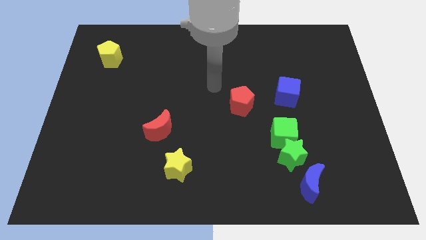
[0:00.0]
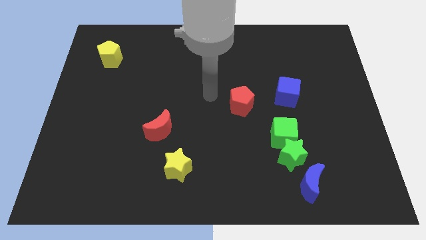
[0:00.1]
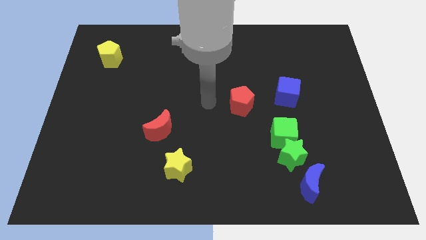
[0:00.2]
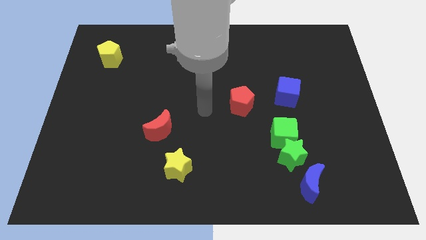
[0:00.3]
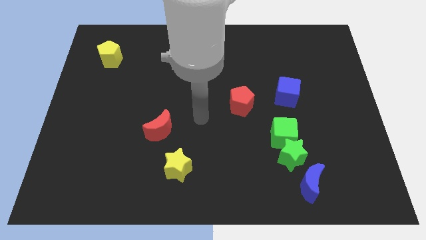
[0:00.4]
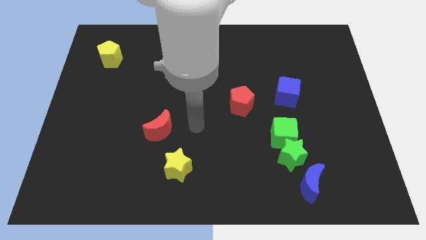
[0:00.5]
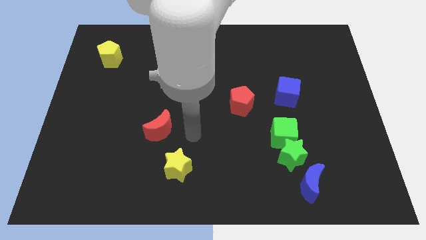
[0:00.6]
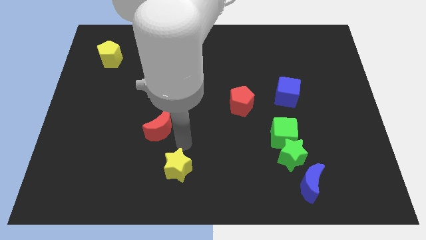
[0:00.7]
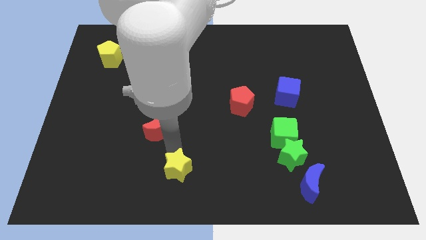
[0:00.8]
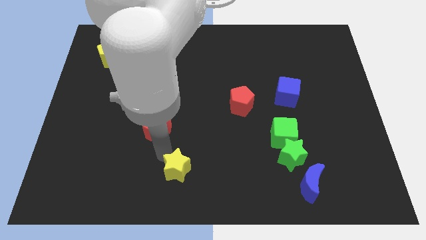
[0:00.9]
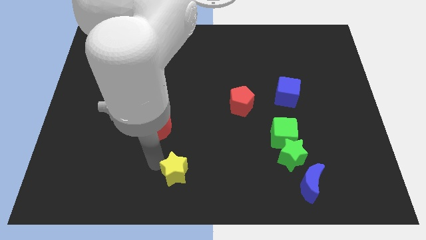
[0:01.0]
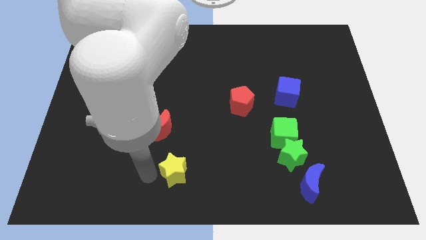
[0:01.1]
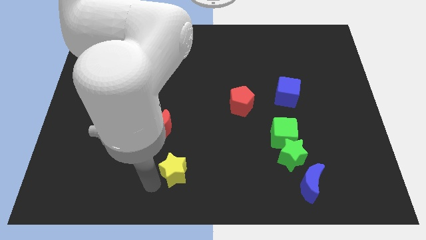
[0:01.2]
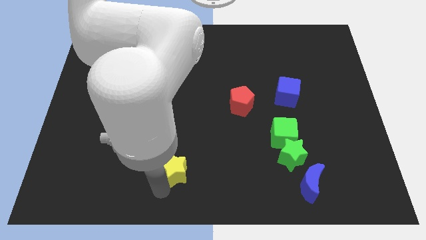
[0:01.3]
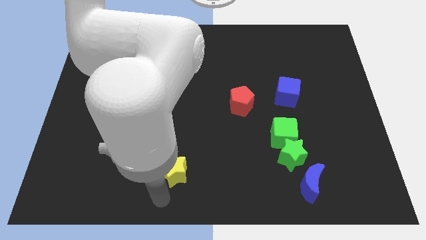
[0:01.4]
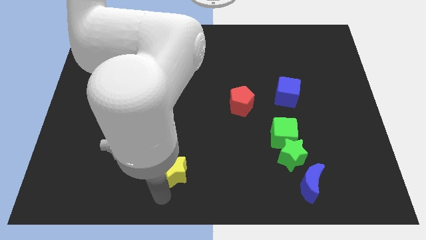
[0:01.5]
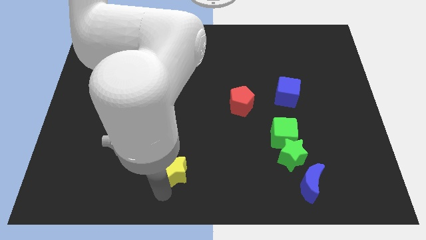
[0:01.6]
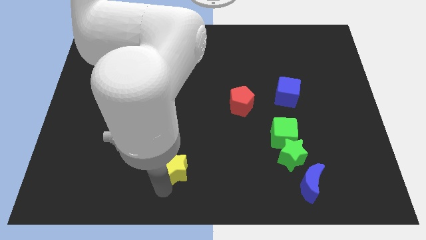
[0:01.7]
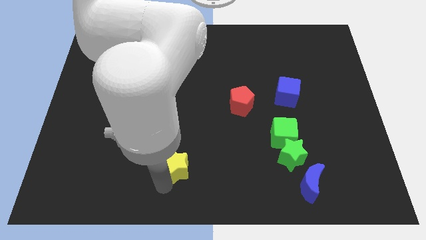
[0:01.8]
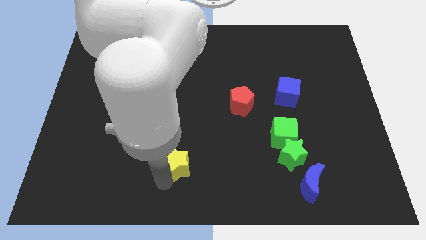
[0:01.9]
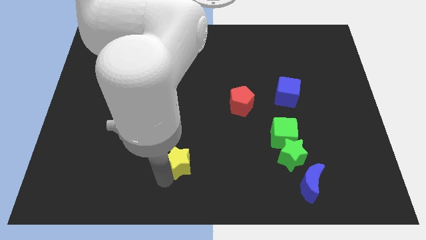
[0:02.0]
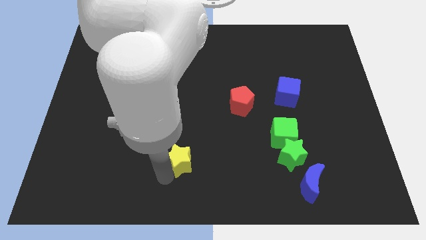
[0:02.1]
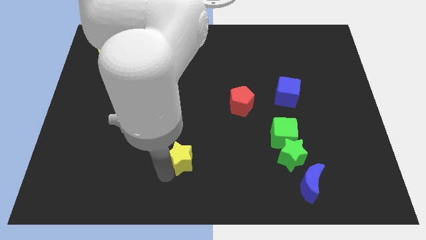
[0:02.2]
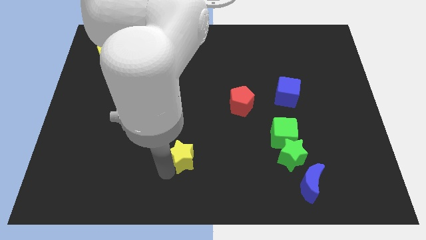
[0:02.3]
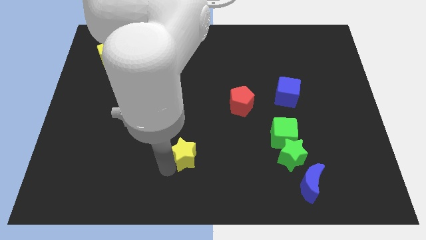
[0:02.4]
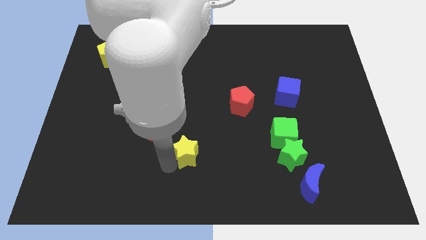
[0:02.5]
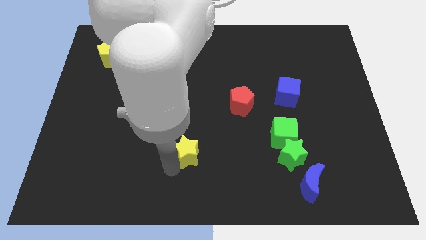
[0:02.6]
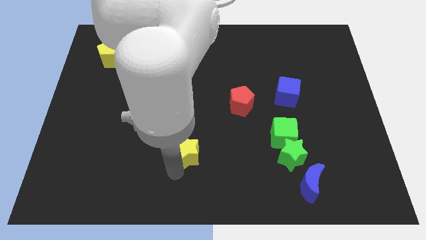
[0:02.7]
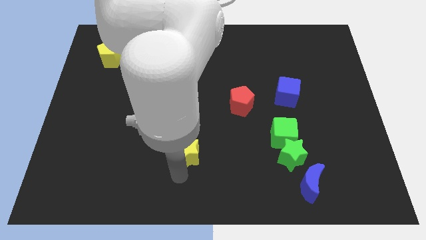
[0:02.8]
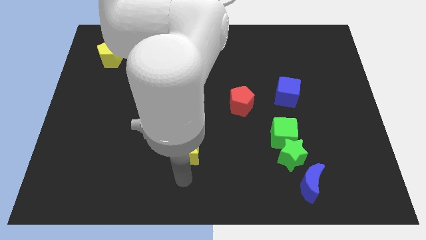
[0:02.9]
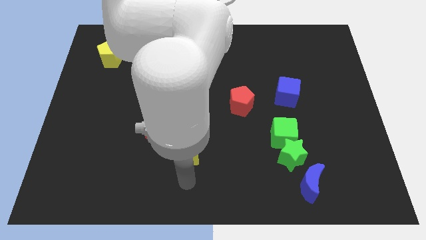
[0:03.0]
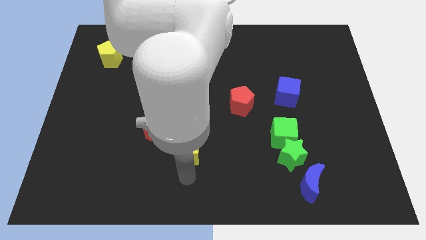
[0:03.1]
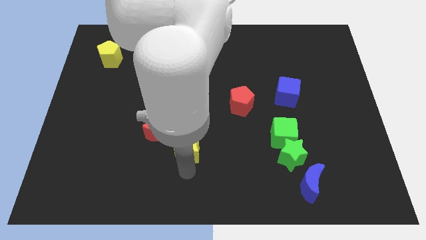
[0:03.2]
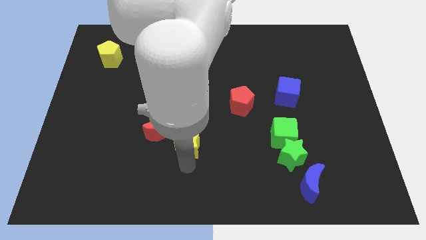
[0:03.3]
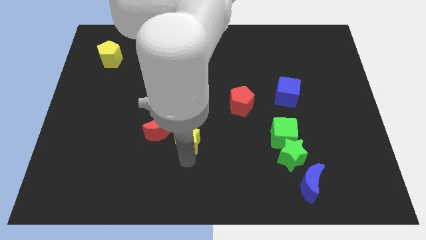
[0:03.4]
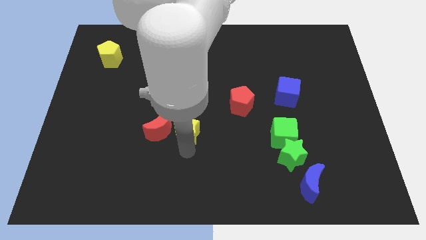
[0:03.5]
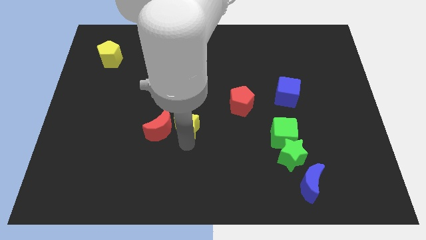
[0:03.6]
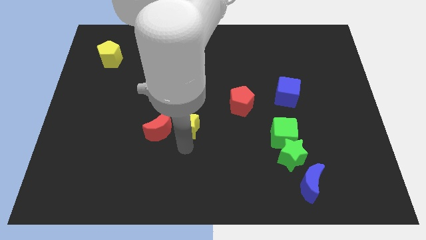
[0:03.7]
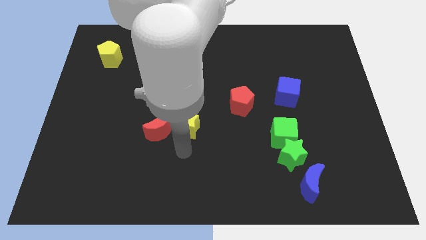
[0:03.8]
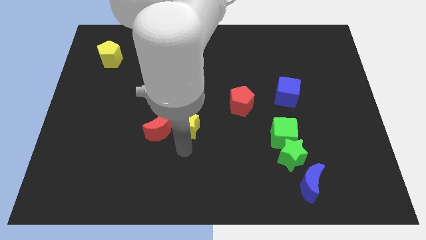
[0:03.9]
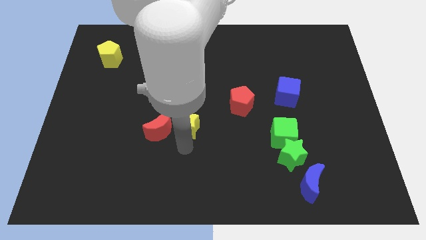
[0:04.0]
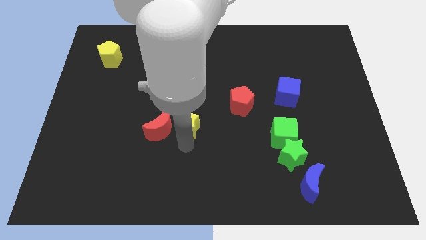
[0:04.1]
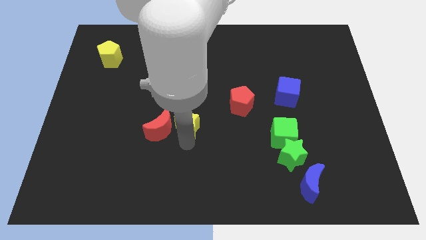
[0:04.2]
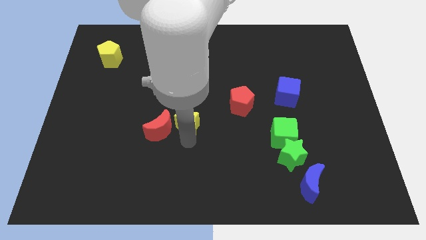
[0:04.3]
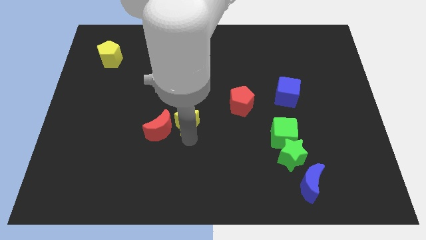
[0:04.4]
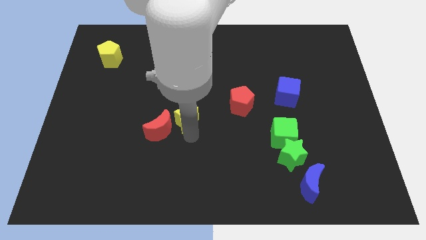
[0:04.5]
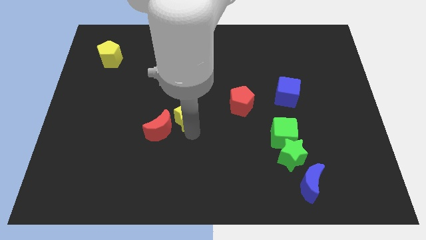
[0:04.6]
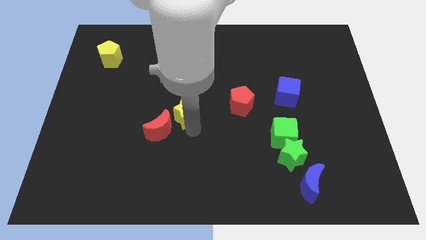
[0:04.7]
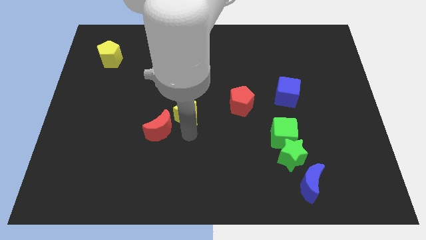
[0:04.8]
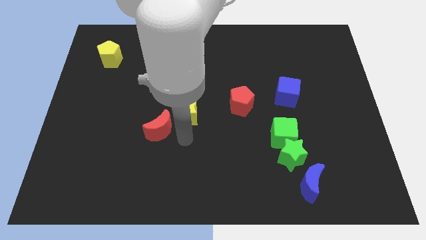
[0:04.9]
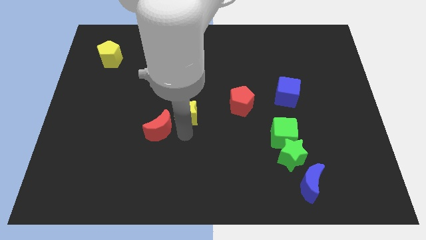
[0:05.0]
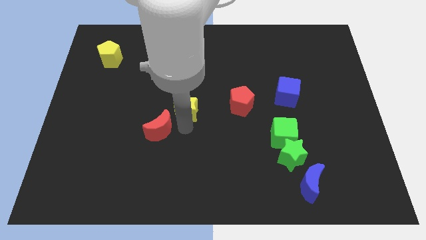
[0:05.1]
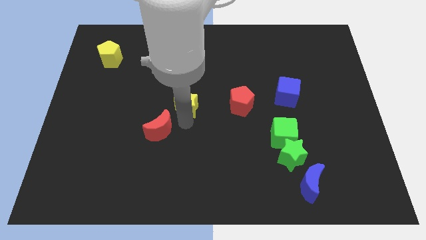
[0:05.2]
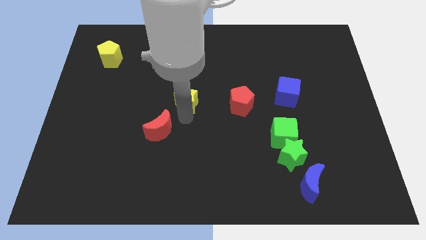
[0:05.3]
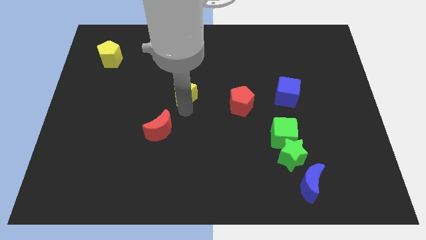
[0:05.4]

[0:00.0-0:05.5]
move the yellow star up

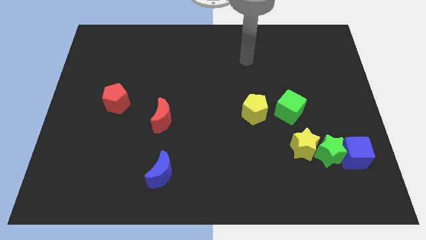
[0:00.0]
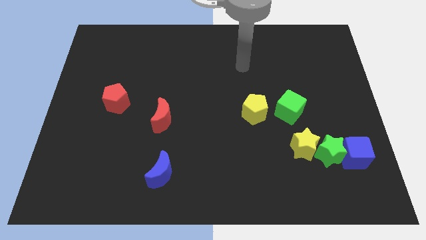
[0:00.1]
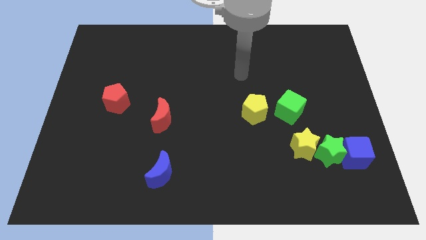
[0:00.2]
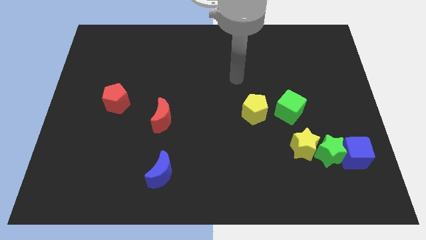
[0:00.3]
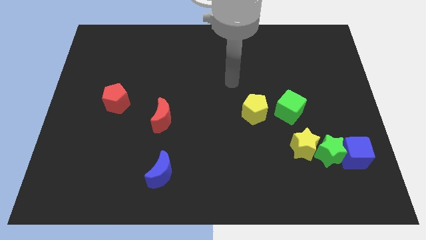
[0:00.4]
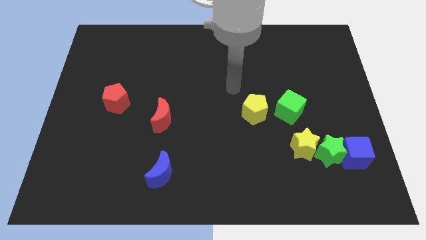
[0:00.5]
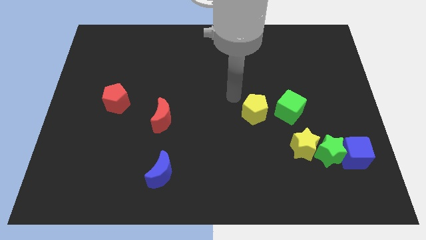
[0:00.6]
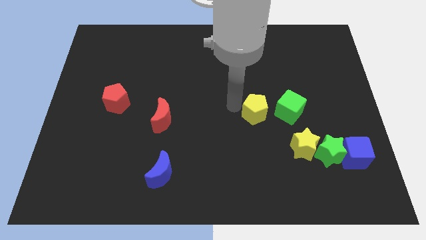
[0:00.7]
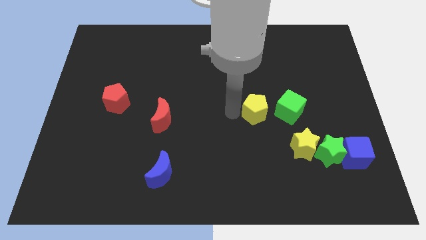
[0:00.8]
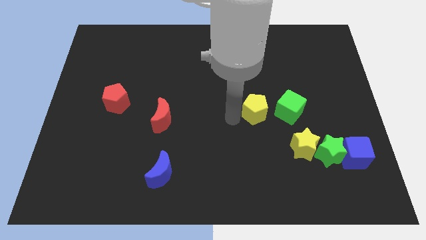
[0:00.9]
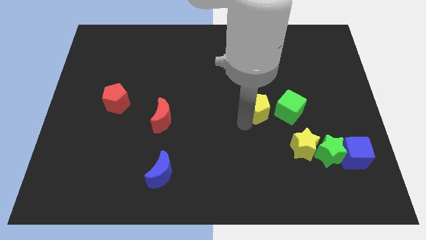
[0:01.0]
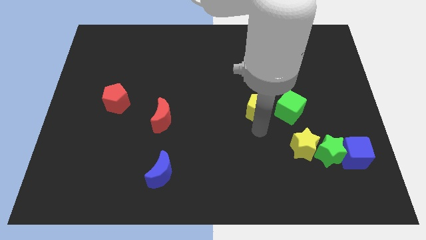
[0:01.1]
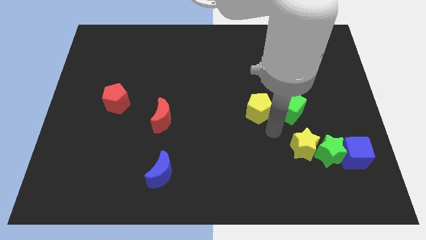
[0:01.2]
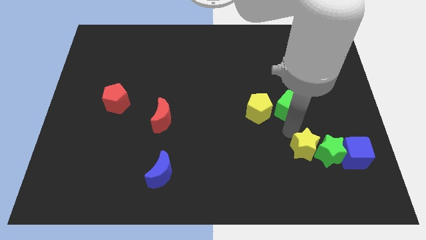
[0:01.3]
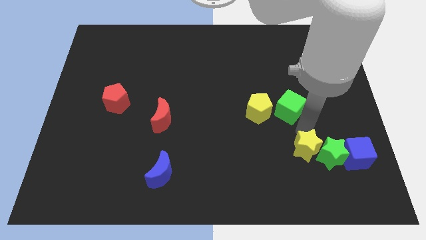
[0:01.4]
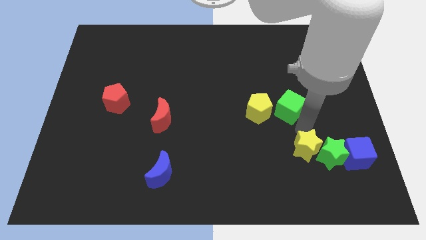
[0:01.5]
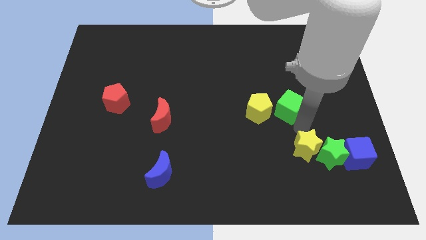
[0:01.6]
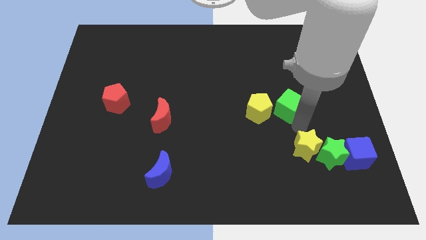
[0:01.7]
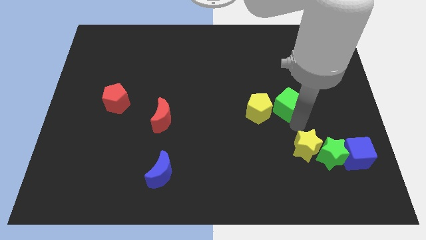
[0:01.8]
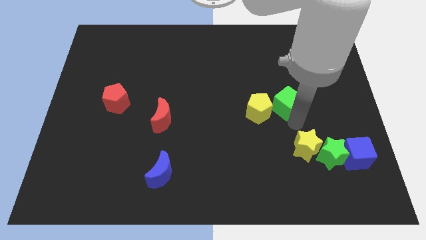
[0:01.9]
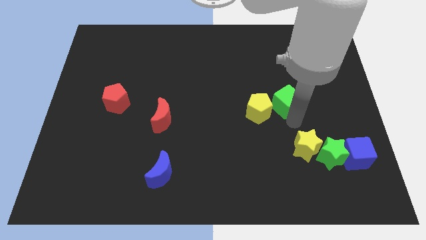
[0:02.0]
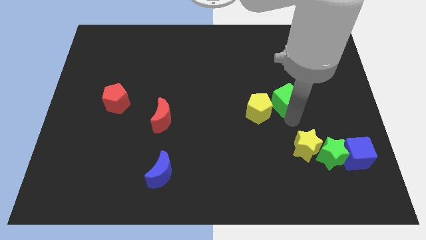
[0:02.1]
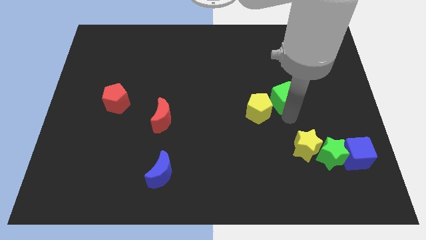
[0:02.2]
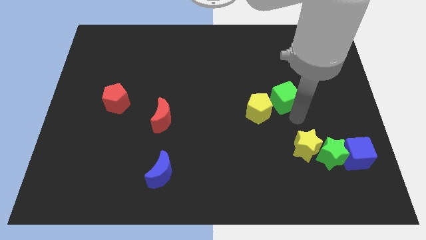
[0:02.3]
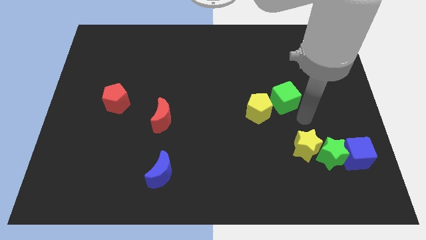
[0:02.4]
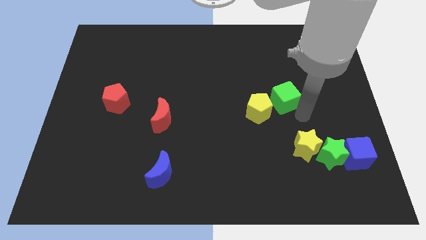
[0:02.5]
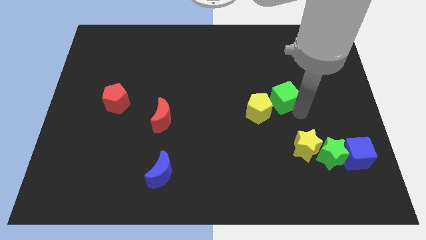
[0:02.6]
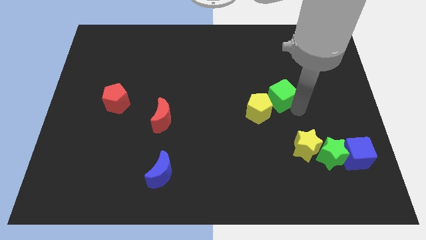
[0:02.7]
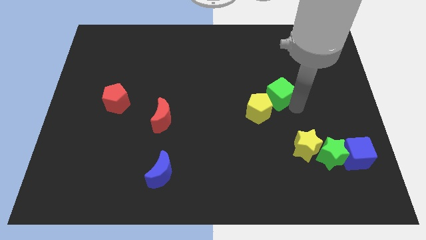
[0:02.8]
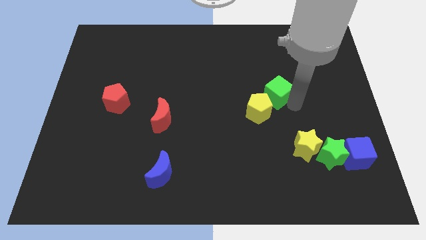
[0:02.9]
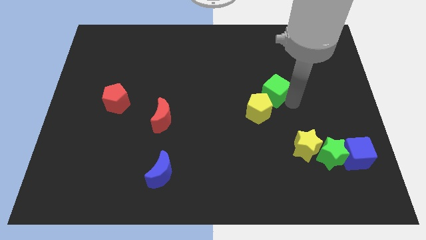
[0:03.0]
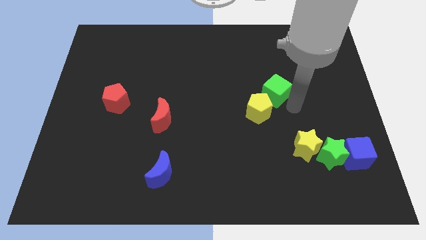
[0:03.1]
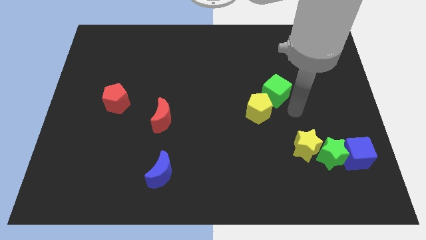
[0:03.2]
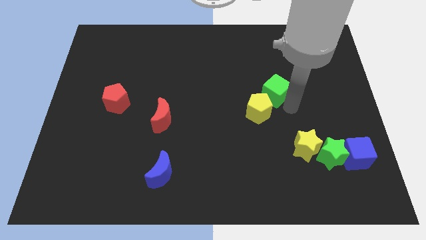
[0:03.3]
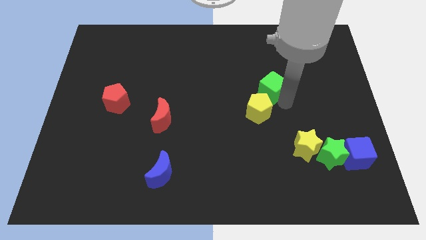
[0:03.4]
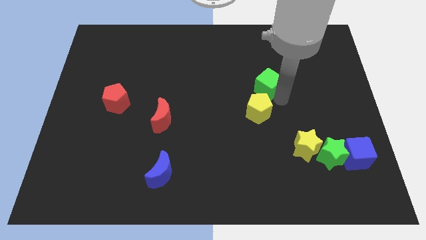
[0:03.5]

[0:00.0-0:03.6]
push the green cube a bit upwards and to the left diagonally
